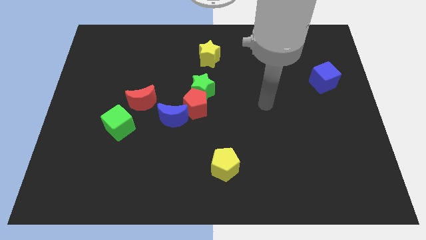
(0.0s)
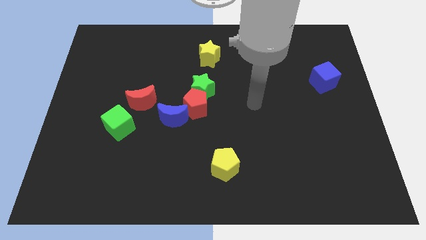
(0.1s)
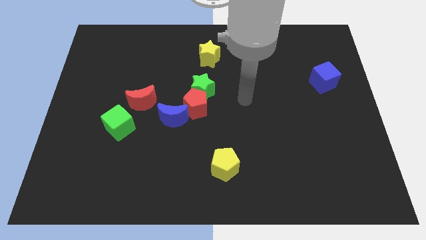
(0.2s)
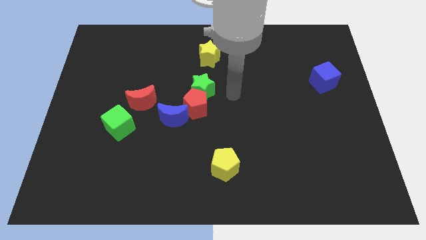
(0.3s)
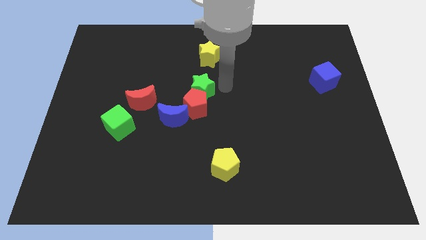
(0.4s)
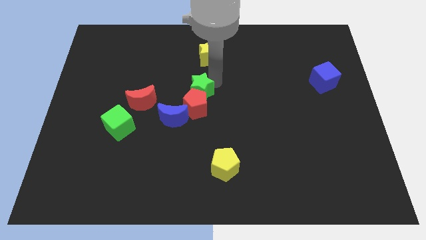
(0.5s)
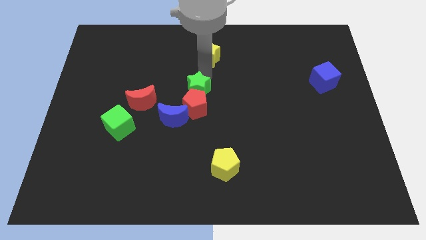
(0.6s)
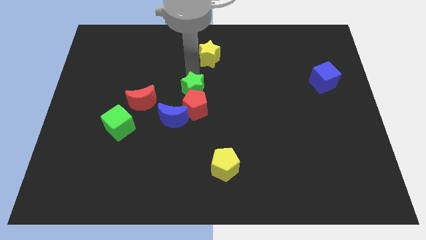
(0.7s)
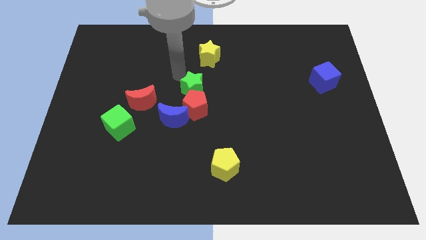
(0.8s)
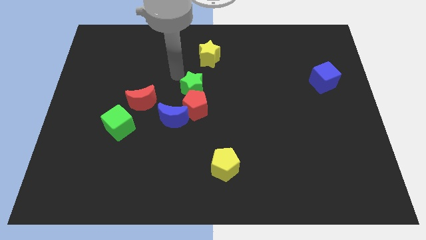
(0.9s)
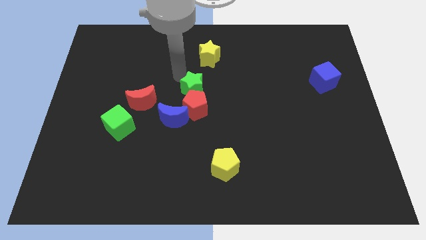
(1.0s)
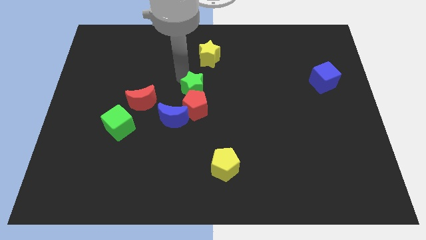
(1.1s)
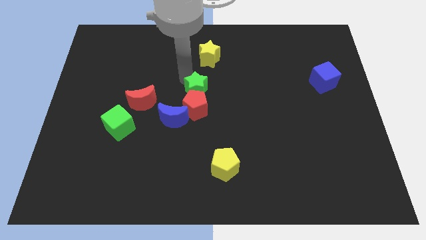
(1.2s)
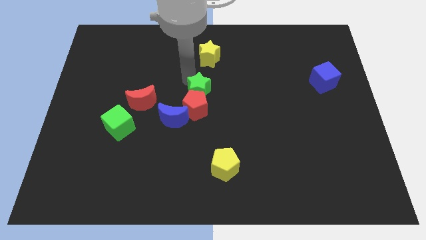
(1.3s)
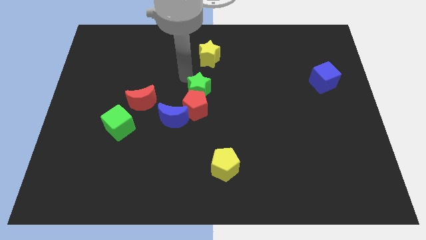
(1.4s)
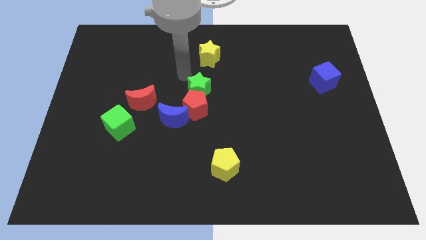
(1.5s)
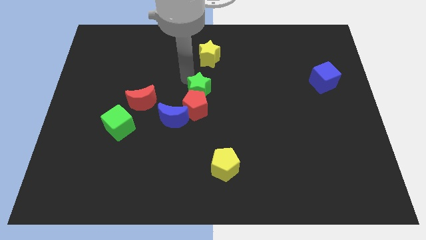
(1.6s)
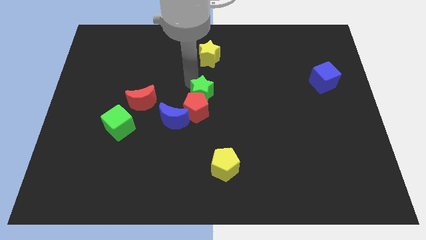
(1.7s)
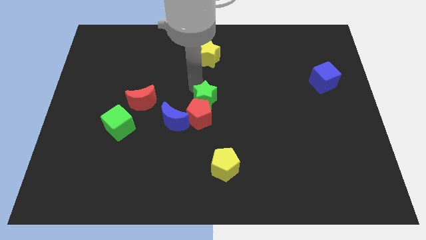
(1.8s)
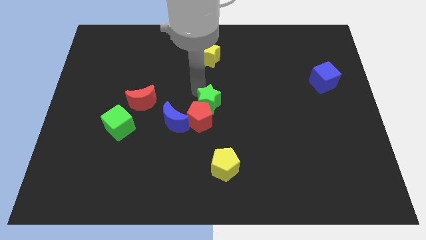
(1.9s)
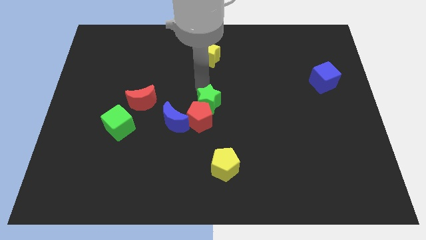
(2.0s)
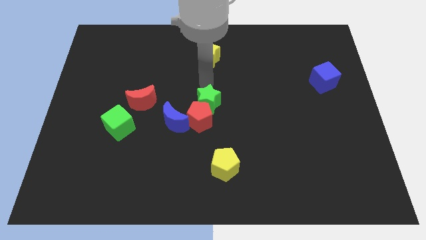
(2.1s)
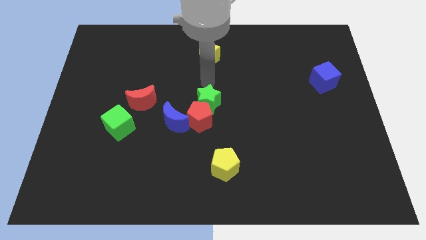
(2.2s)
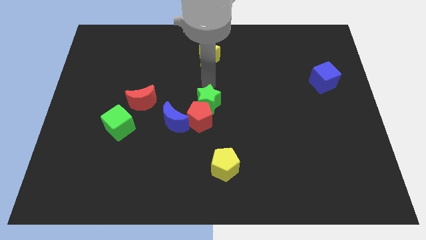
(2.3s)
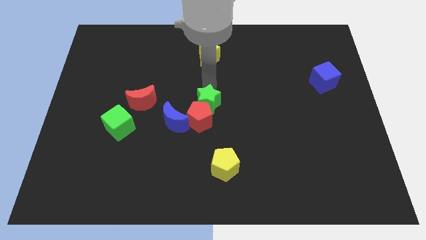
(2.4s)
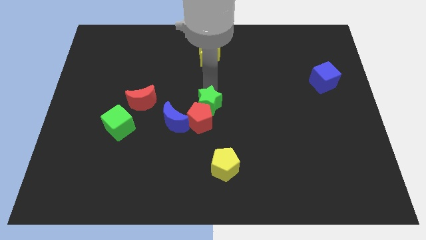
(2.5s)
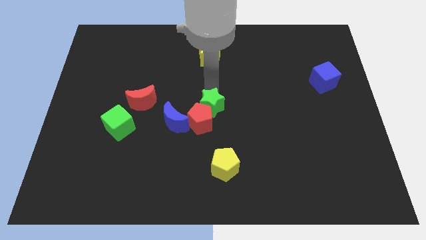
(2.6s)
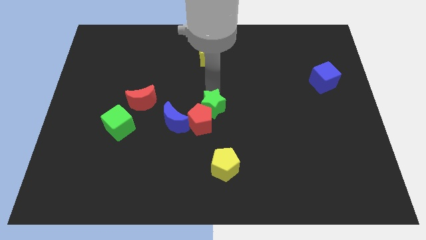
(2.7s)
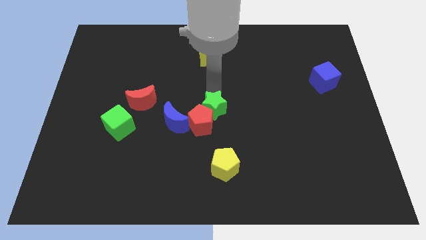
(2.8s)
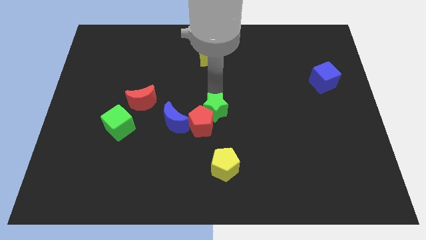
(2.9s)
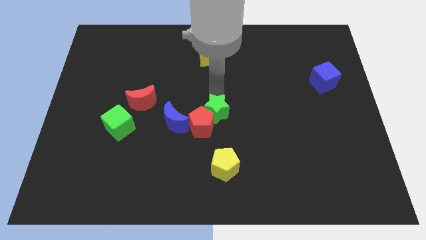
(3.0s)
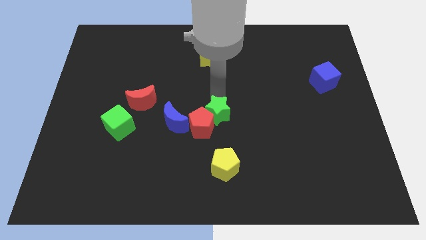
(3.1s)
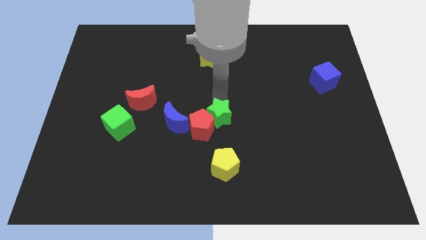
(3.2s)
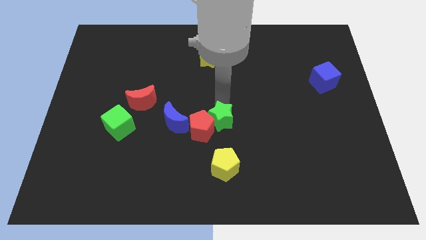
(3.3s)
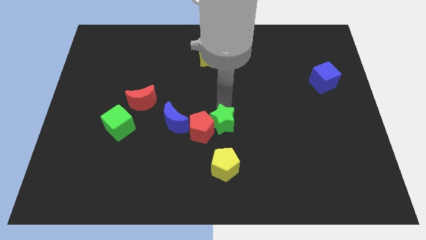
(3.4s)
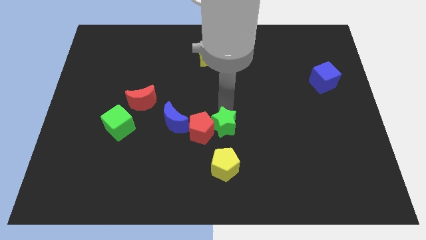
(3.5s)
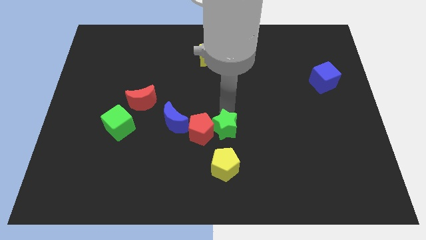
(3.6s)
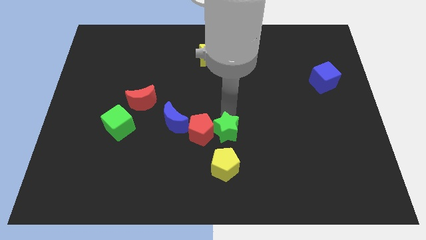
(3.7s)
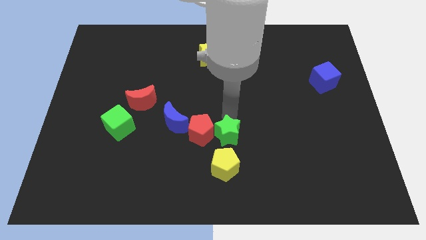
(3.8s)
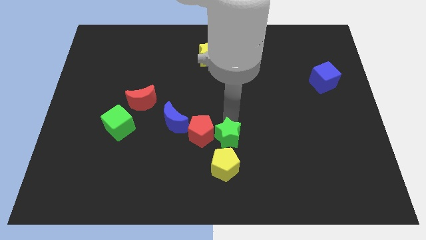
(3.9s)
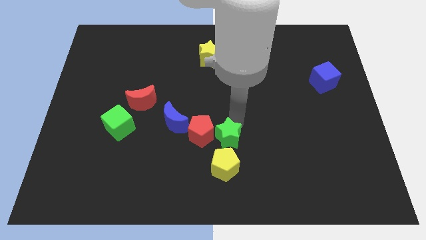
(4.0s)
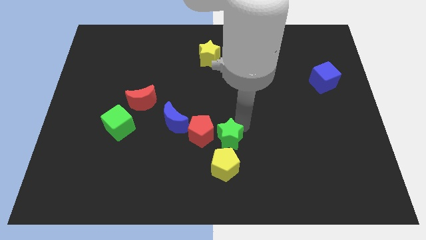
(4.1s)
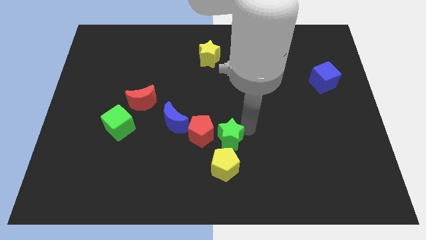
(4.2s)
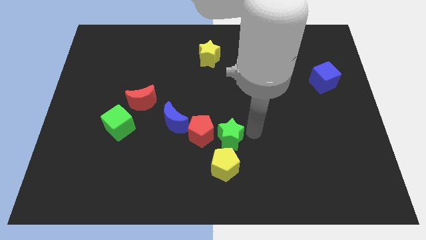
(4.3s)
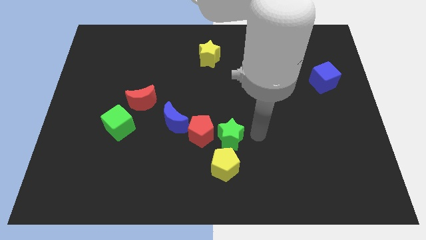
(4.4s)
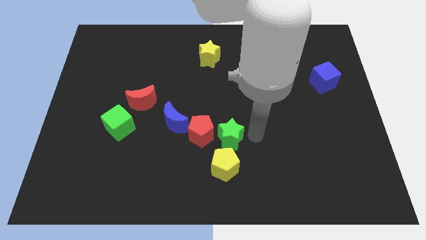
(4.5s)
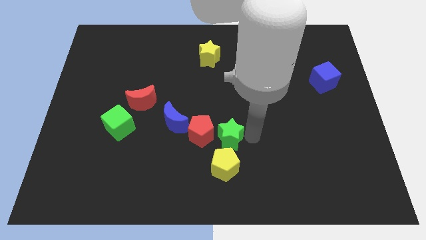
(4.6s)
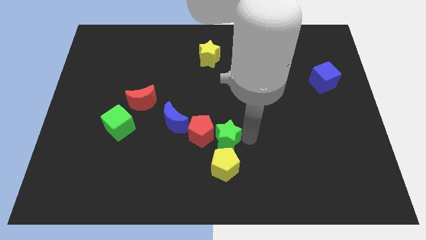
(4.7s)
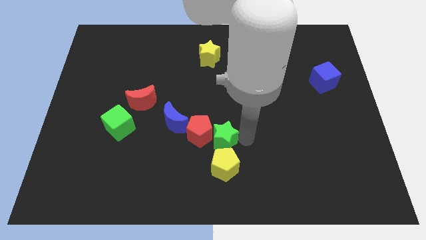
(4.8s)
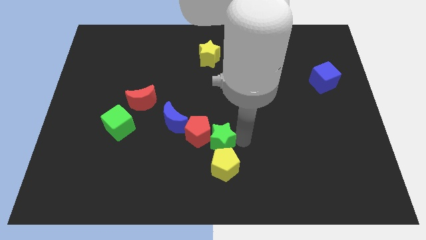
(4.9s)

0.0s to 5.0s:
put the green star to the bottom right side of the blue moon

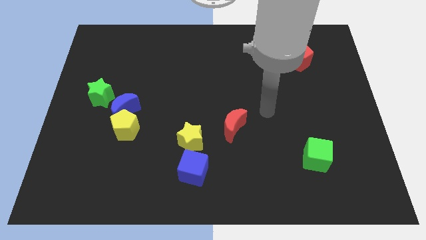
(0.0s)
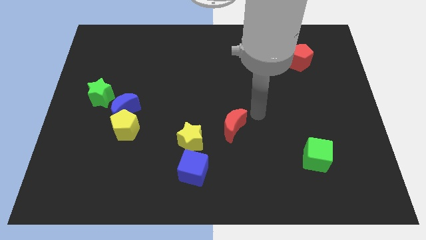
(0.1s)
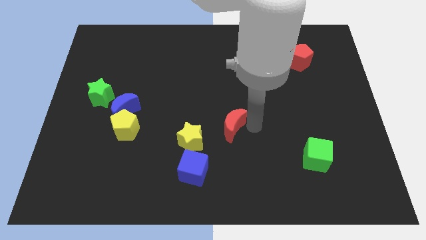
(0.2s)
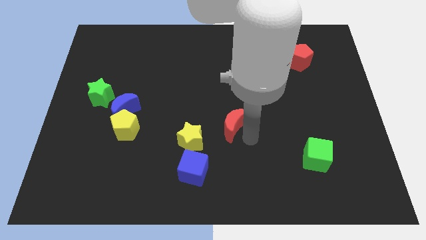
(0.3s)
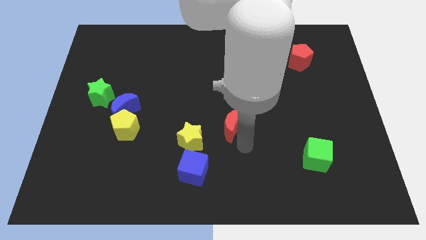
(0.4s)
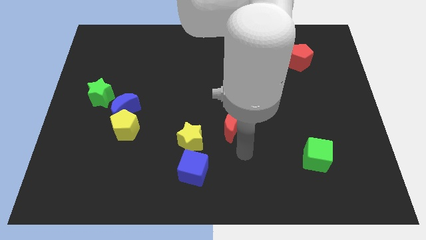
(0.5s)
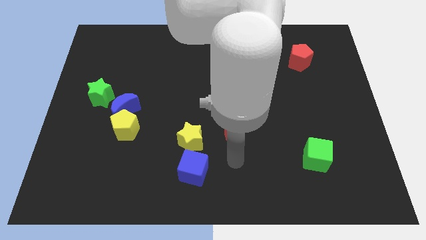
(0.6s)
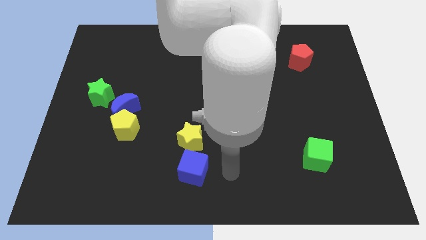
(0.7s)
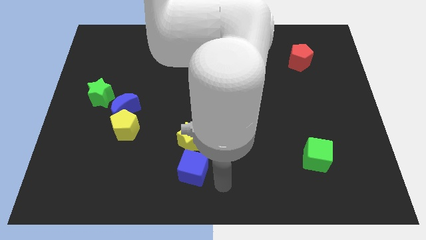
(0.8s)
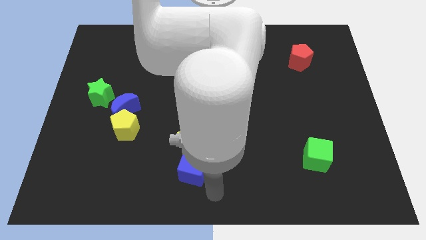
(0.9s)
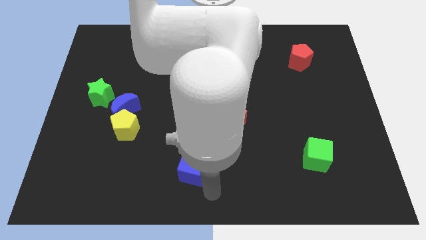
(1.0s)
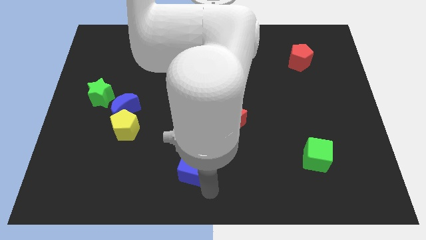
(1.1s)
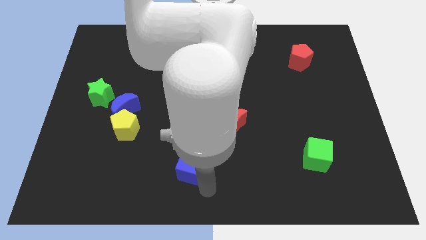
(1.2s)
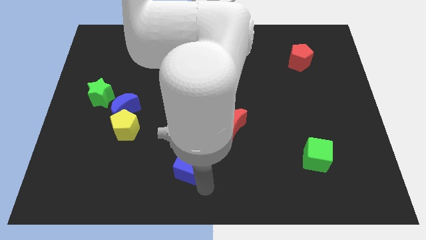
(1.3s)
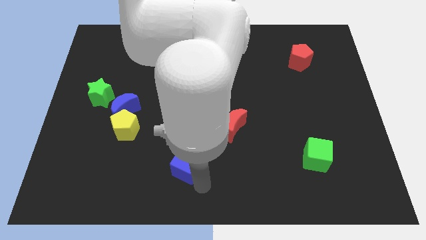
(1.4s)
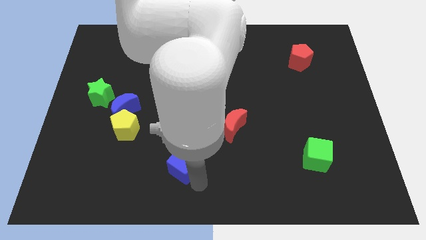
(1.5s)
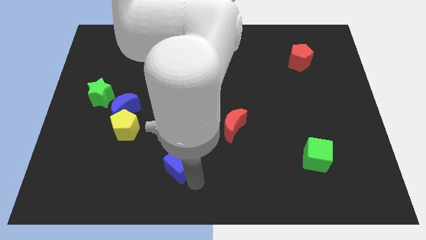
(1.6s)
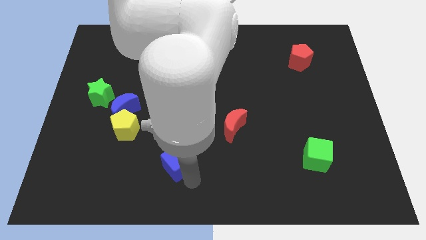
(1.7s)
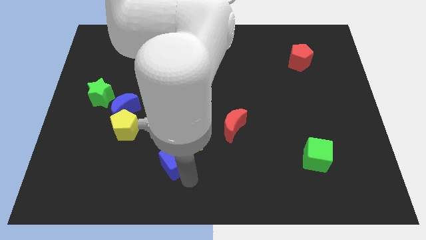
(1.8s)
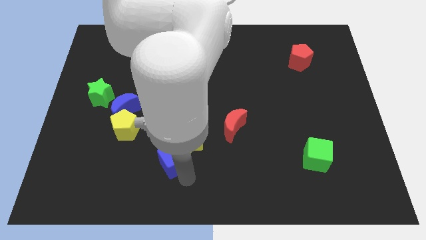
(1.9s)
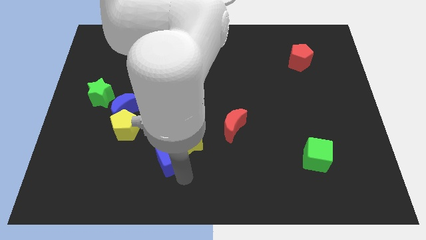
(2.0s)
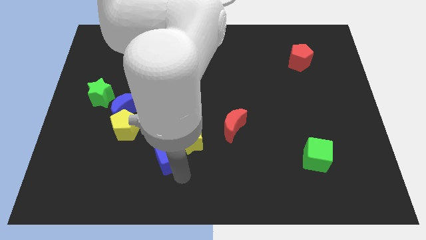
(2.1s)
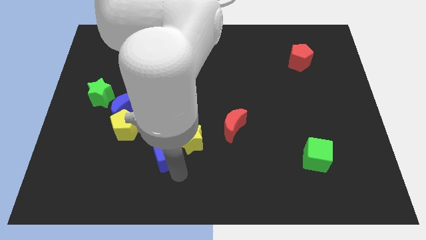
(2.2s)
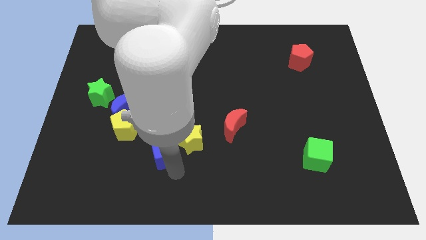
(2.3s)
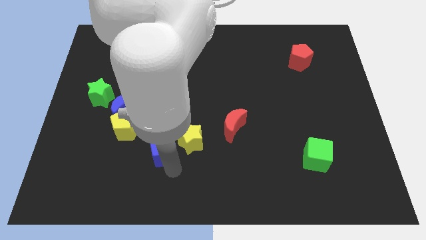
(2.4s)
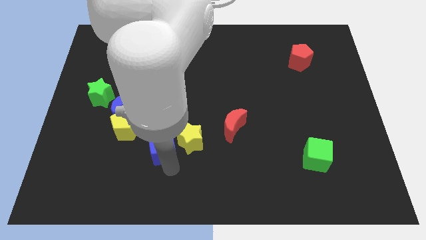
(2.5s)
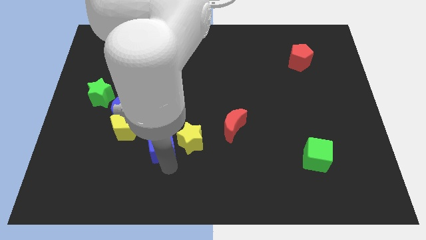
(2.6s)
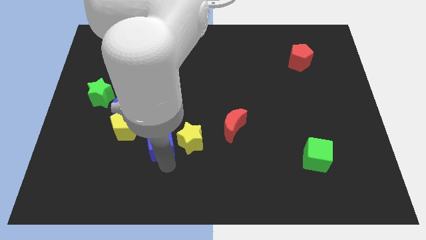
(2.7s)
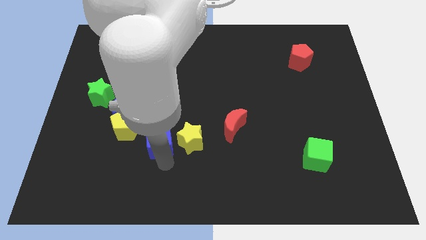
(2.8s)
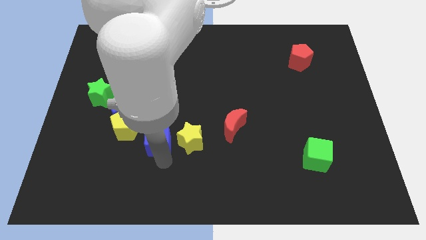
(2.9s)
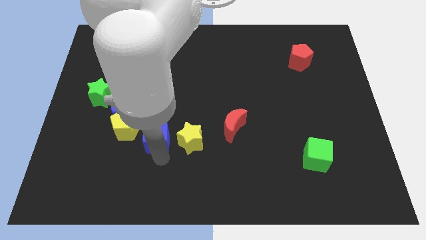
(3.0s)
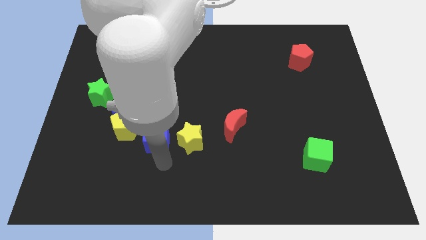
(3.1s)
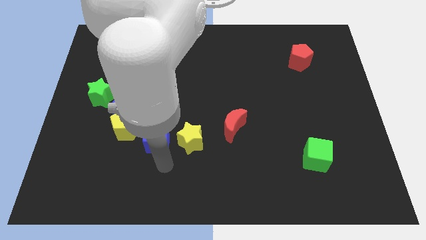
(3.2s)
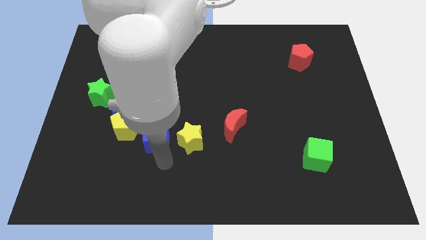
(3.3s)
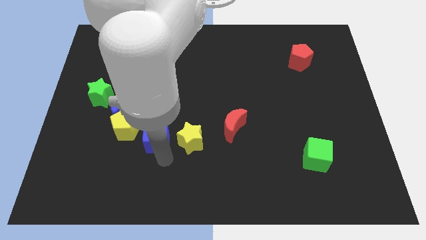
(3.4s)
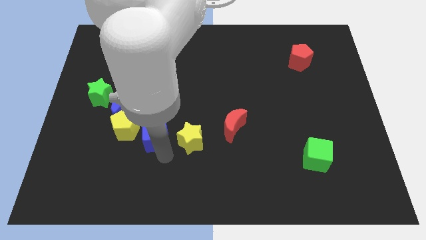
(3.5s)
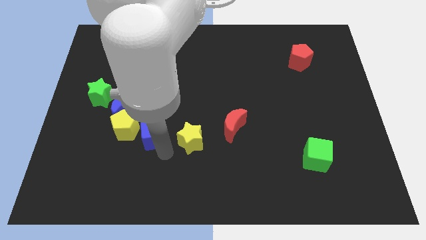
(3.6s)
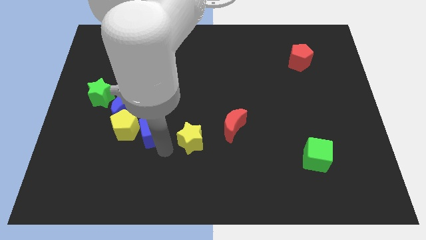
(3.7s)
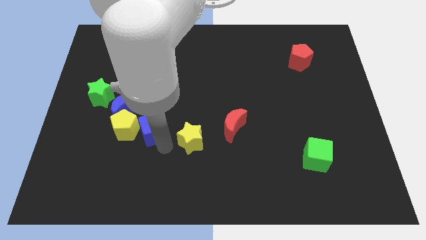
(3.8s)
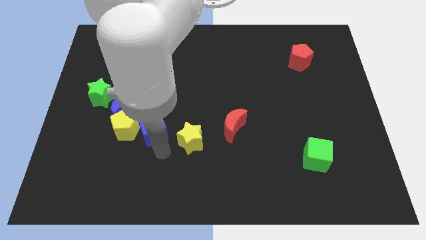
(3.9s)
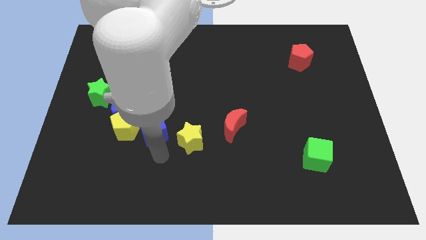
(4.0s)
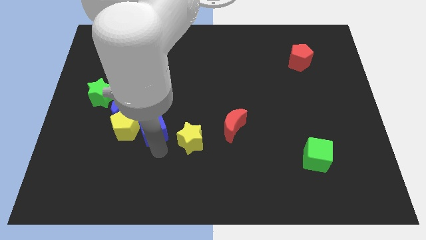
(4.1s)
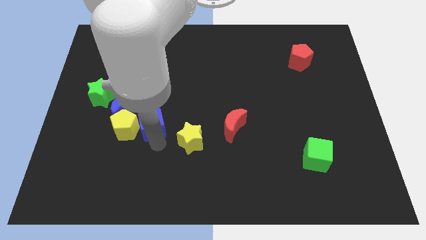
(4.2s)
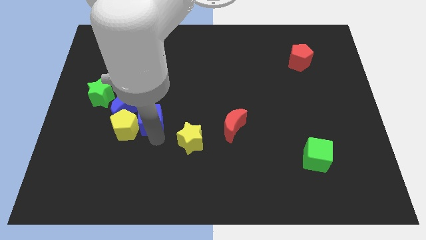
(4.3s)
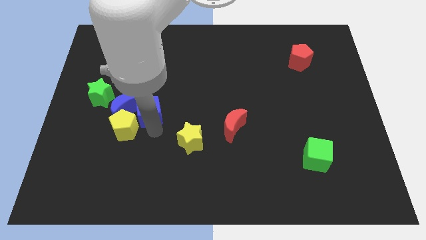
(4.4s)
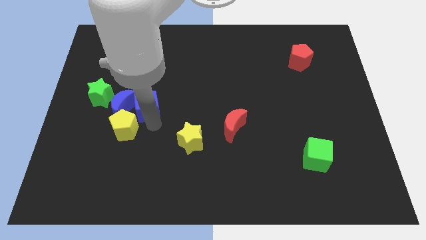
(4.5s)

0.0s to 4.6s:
push the blue cube to the right of the green star
